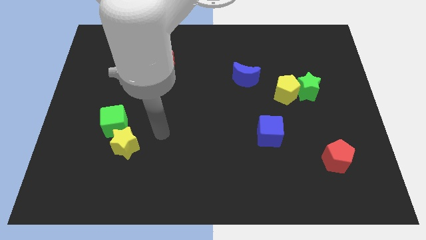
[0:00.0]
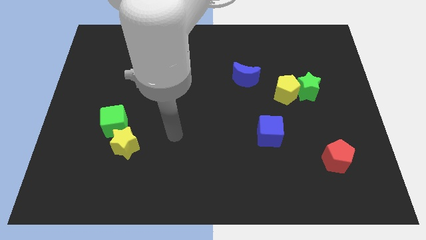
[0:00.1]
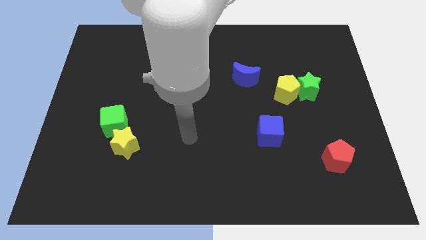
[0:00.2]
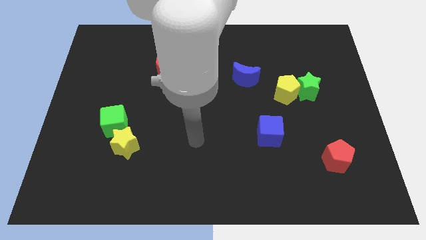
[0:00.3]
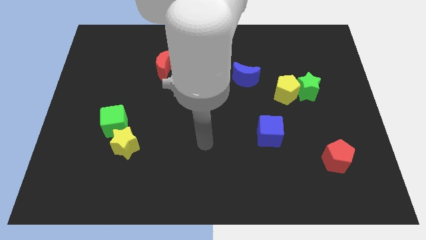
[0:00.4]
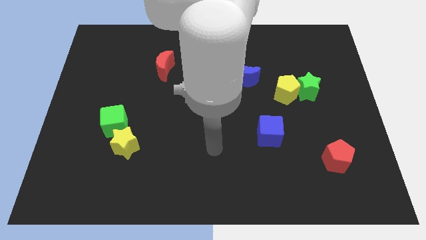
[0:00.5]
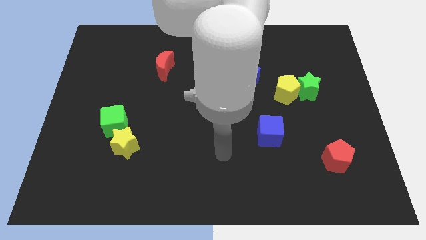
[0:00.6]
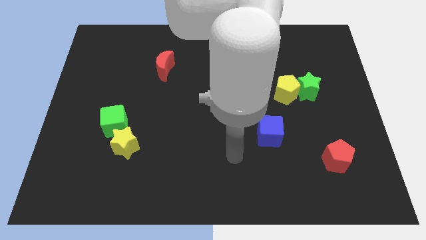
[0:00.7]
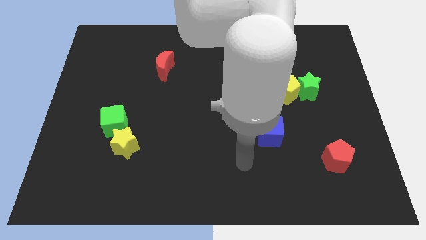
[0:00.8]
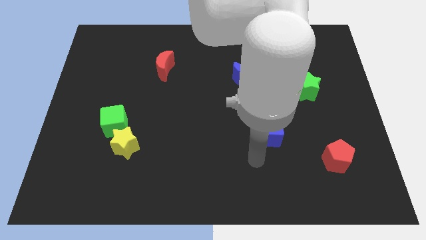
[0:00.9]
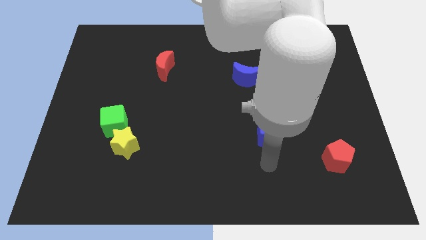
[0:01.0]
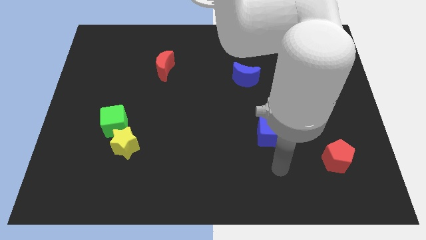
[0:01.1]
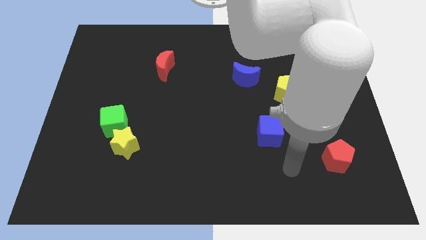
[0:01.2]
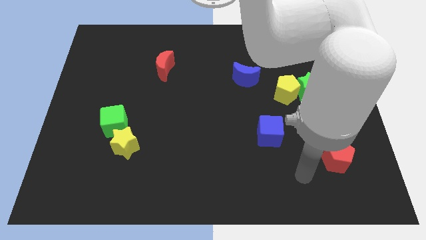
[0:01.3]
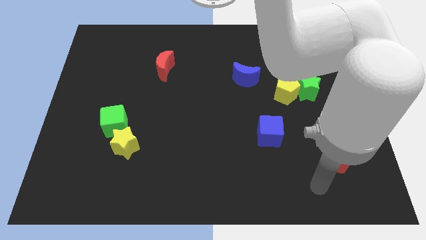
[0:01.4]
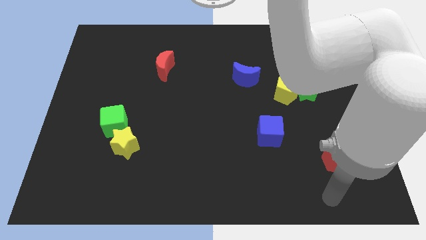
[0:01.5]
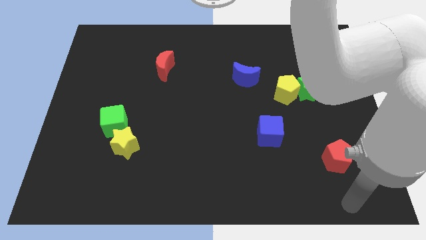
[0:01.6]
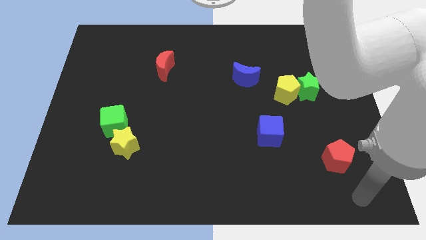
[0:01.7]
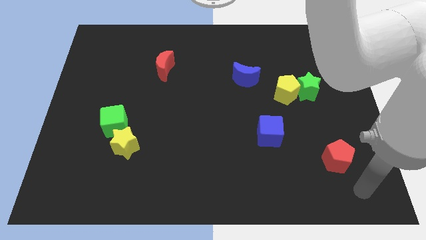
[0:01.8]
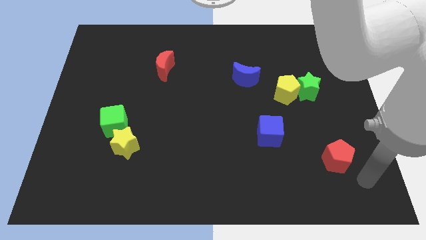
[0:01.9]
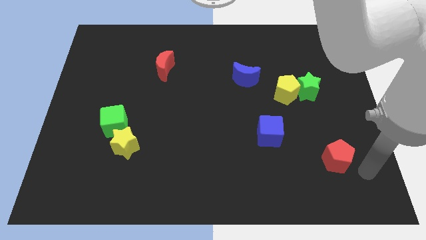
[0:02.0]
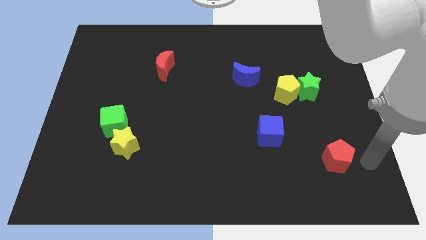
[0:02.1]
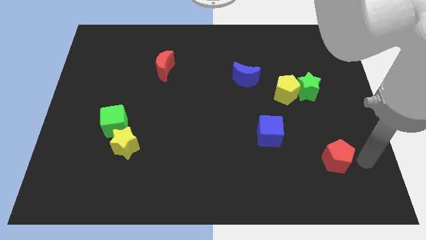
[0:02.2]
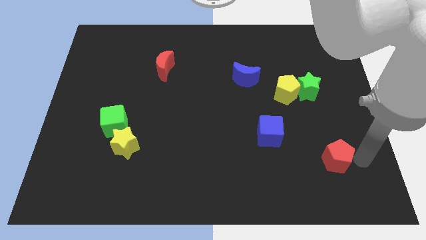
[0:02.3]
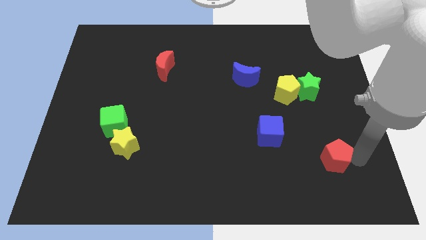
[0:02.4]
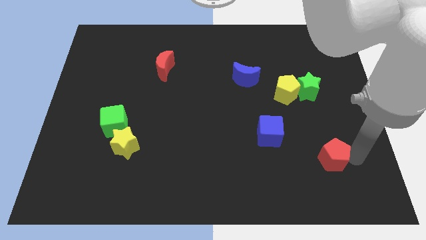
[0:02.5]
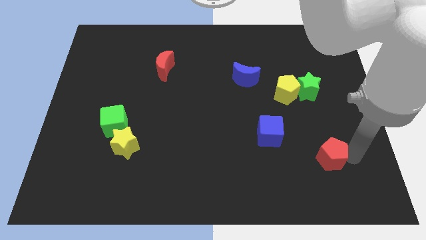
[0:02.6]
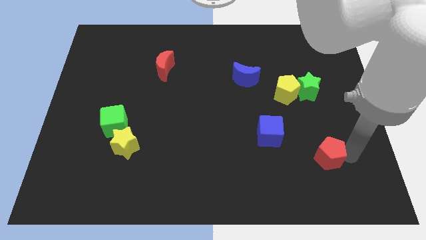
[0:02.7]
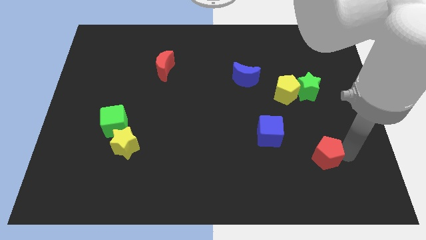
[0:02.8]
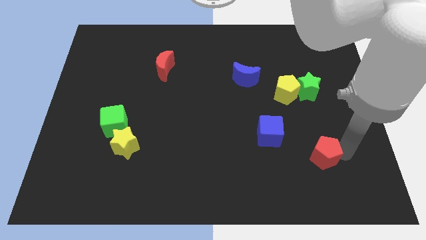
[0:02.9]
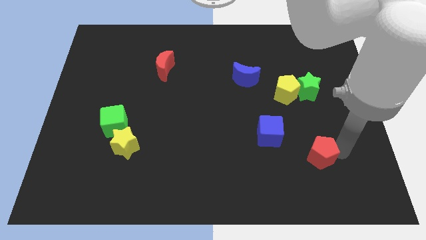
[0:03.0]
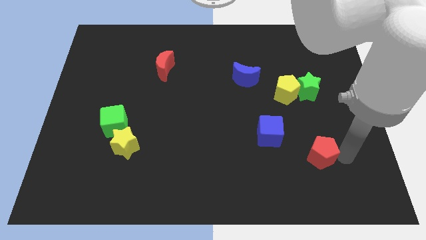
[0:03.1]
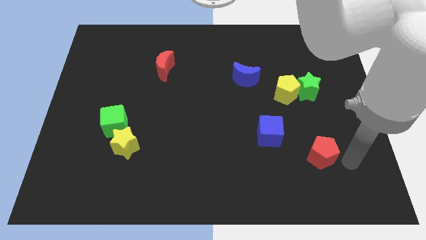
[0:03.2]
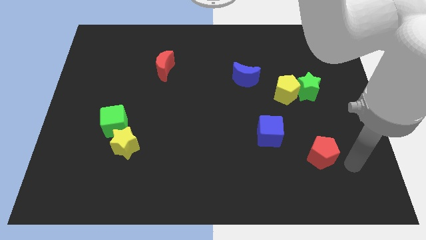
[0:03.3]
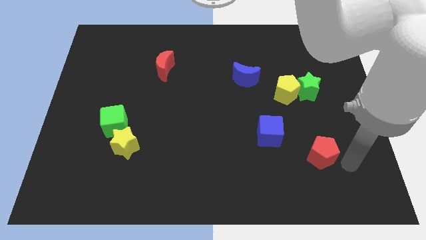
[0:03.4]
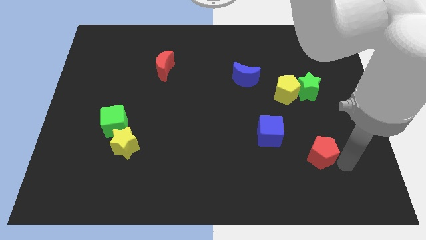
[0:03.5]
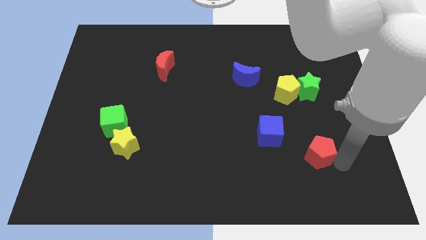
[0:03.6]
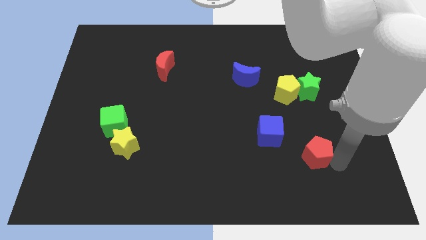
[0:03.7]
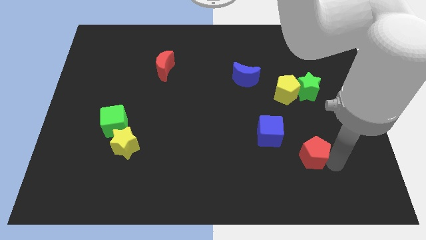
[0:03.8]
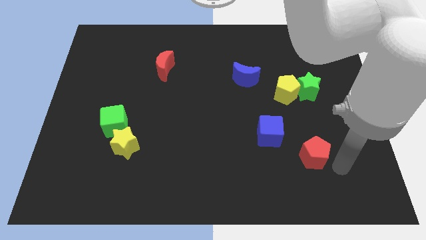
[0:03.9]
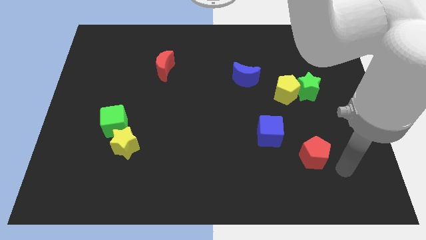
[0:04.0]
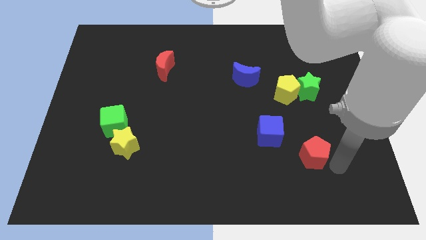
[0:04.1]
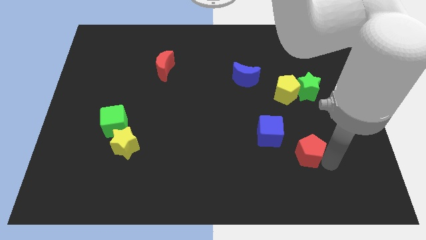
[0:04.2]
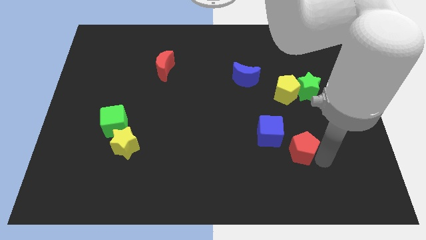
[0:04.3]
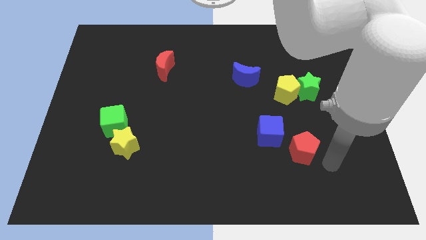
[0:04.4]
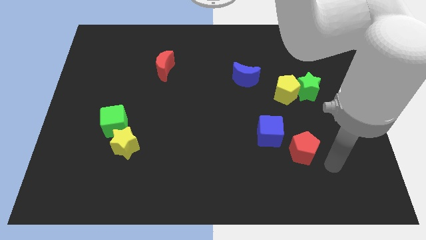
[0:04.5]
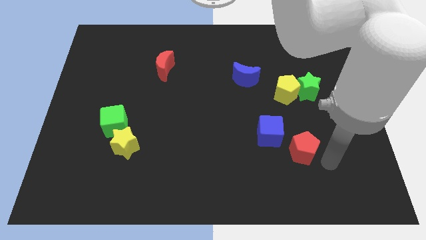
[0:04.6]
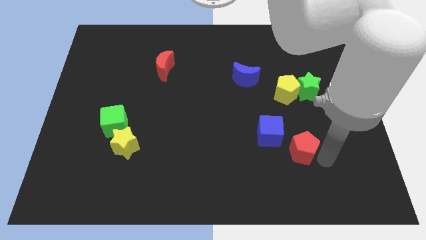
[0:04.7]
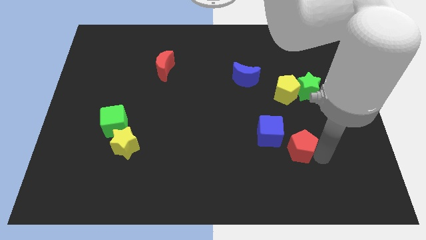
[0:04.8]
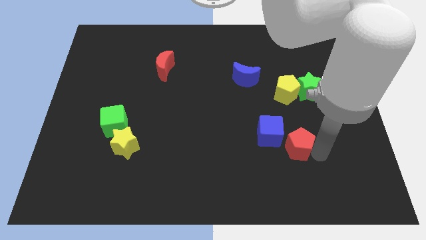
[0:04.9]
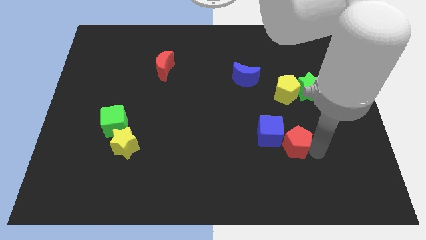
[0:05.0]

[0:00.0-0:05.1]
slide the red pentagon towards the blue cube

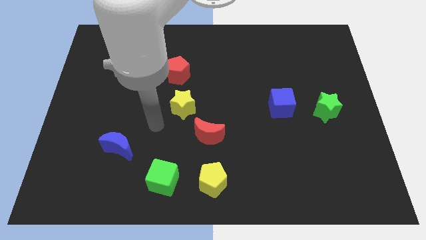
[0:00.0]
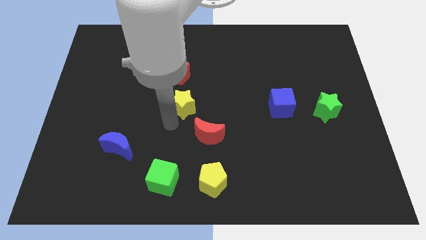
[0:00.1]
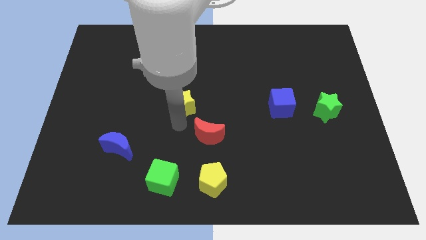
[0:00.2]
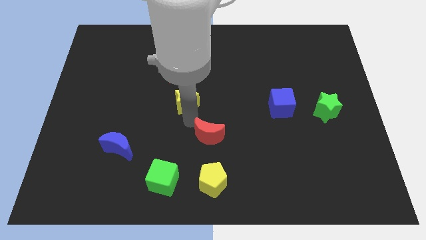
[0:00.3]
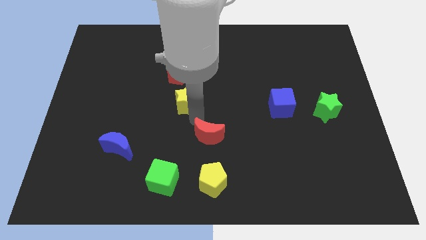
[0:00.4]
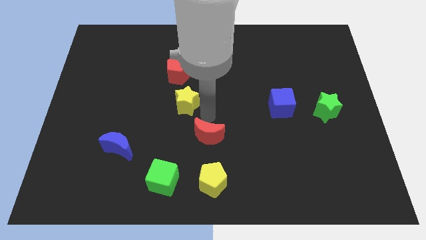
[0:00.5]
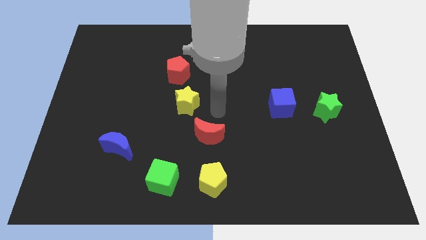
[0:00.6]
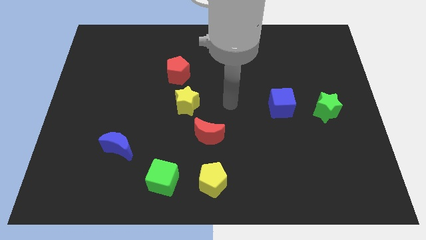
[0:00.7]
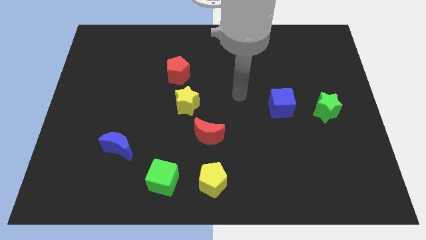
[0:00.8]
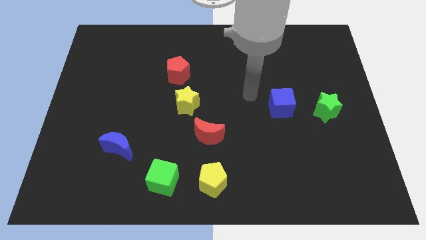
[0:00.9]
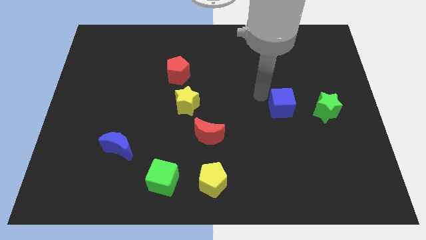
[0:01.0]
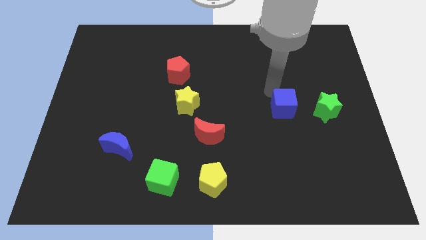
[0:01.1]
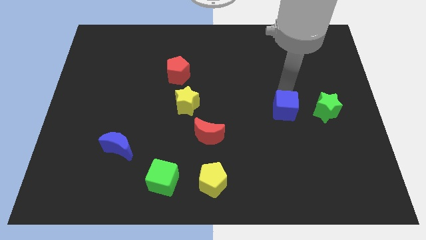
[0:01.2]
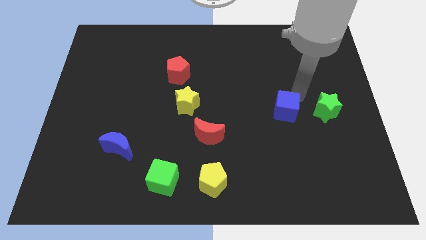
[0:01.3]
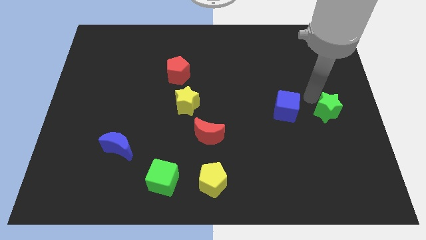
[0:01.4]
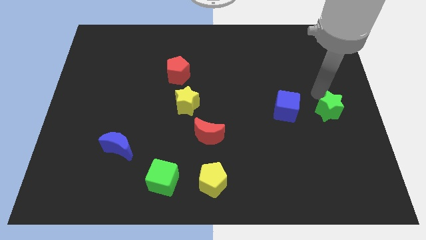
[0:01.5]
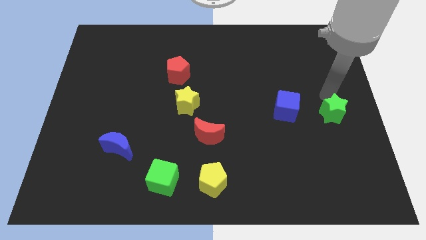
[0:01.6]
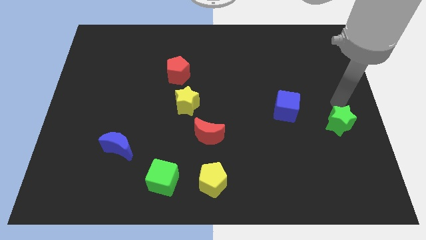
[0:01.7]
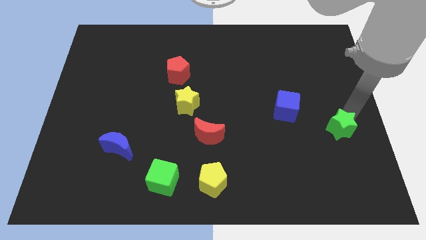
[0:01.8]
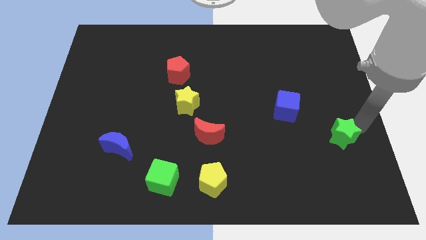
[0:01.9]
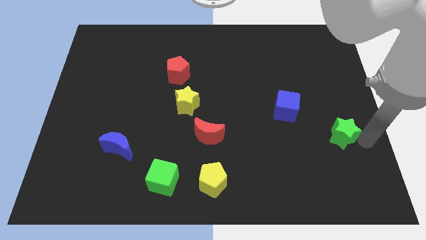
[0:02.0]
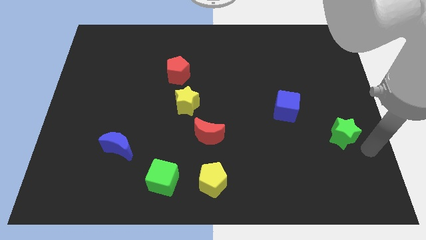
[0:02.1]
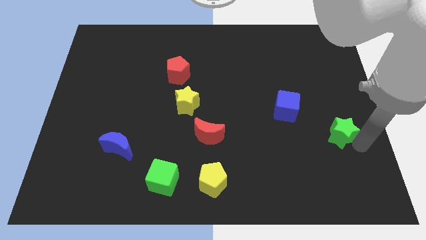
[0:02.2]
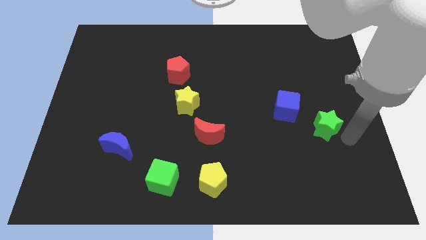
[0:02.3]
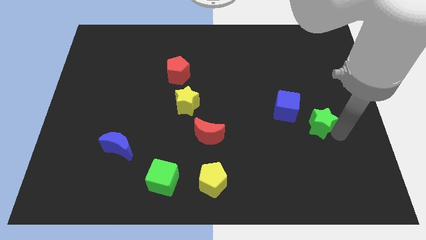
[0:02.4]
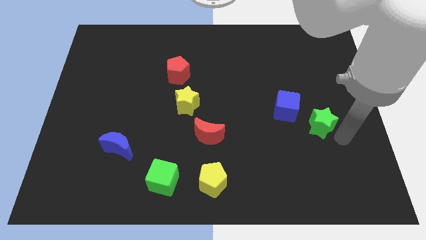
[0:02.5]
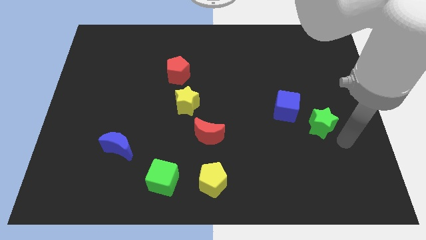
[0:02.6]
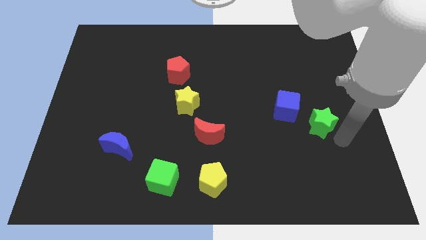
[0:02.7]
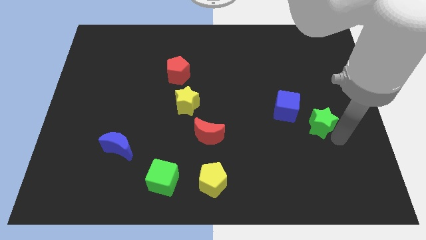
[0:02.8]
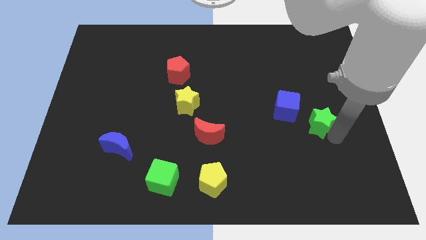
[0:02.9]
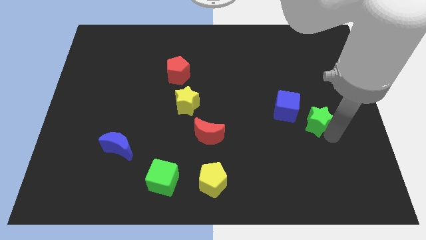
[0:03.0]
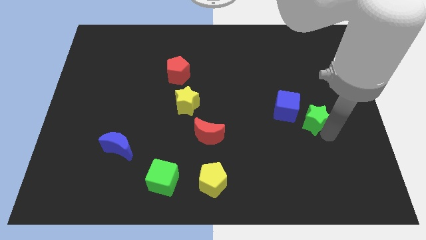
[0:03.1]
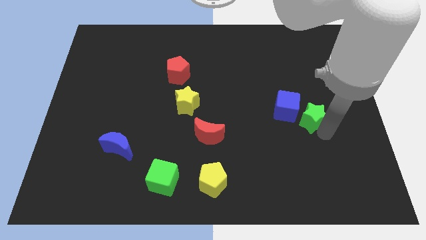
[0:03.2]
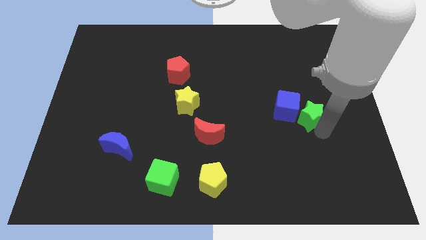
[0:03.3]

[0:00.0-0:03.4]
move the green star next to the blue cube

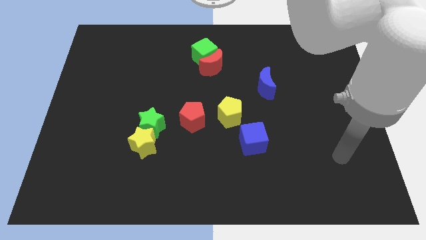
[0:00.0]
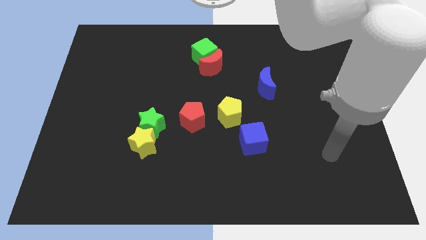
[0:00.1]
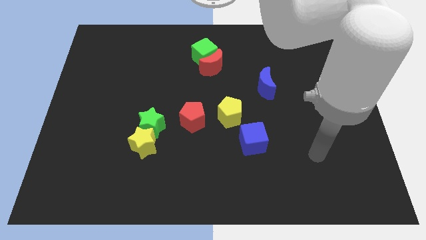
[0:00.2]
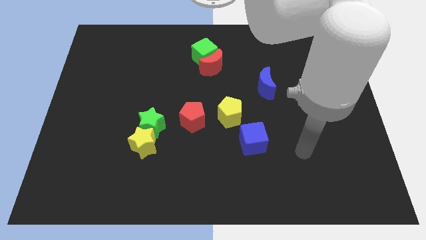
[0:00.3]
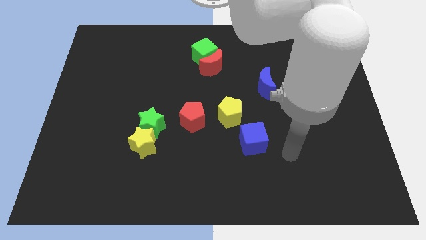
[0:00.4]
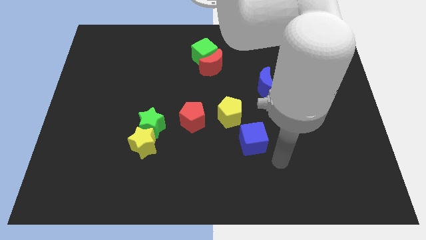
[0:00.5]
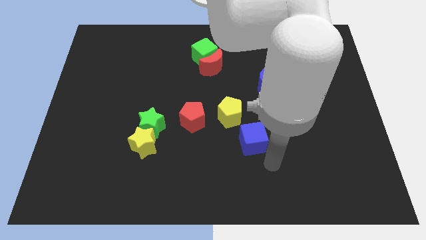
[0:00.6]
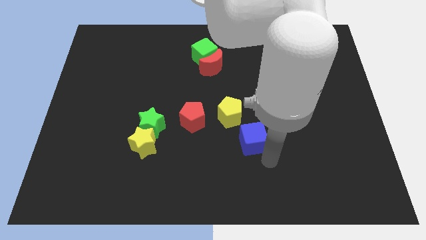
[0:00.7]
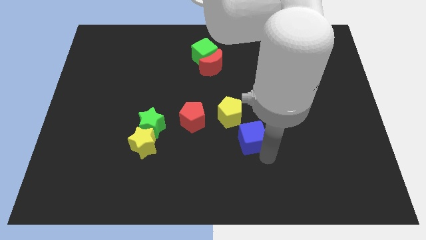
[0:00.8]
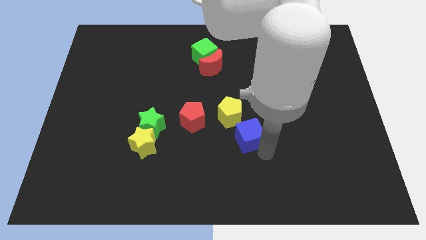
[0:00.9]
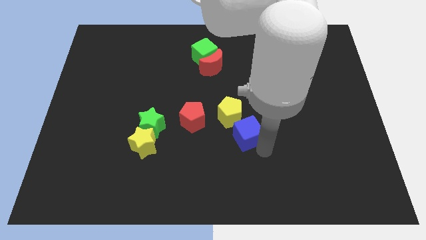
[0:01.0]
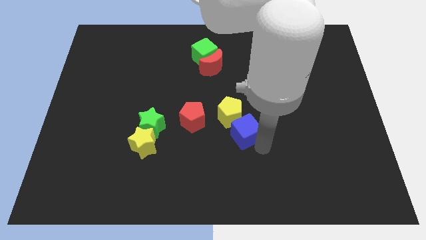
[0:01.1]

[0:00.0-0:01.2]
move the blue cube to the yellow pentagon
